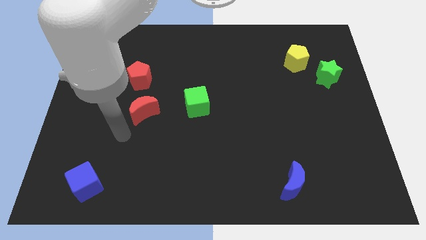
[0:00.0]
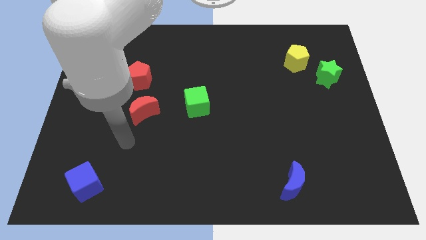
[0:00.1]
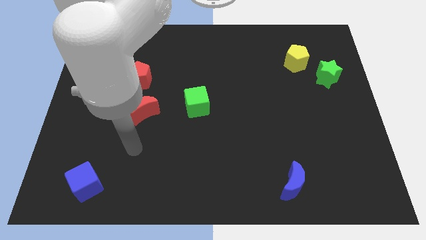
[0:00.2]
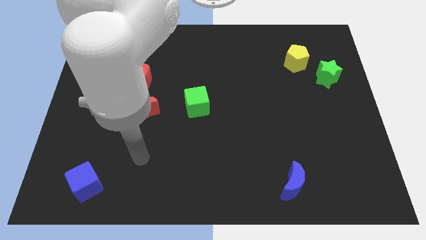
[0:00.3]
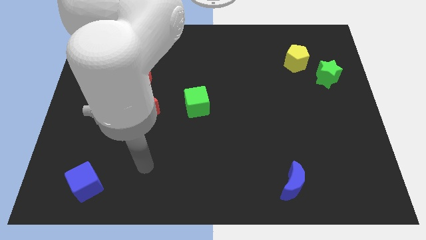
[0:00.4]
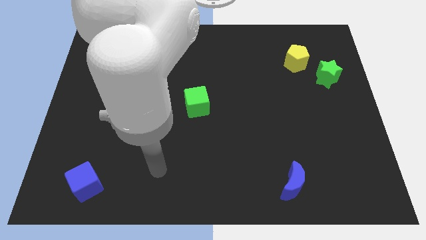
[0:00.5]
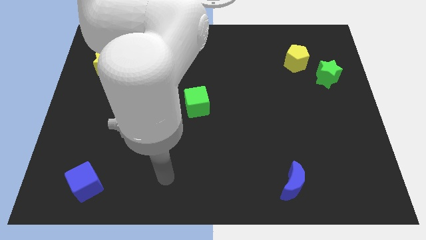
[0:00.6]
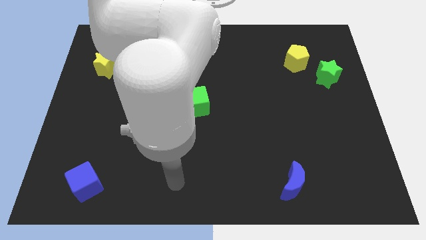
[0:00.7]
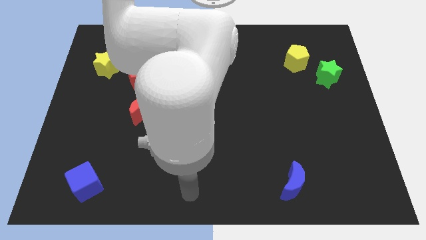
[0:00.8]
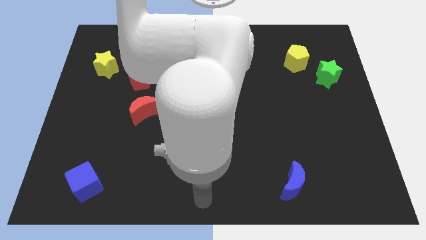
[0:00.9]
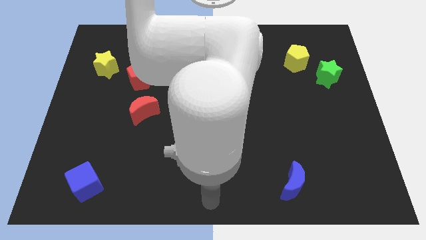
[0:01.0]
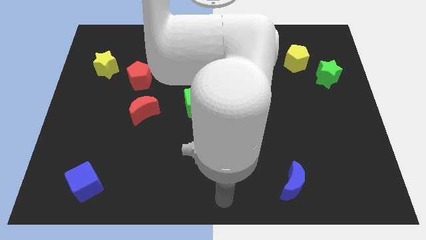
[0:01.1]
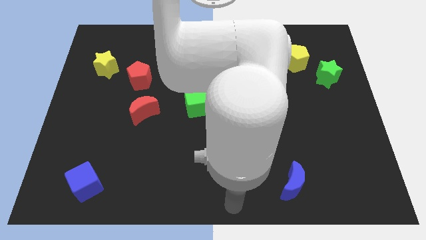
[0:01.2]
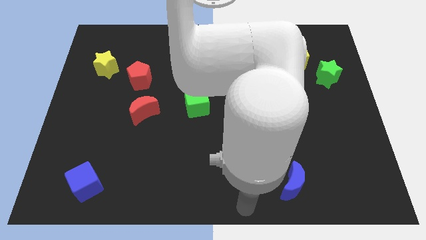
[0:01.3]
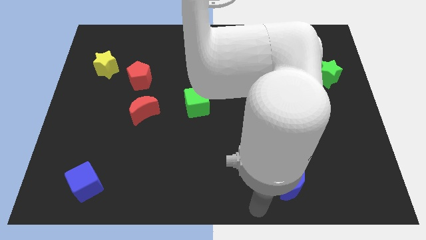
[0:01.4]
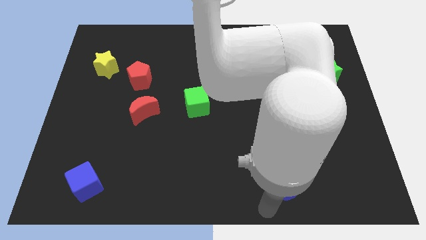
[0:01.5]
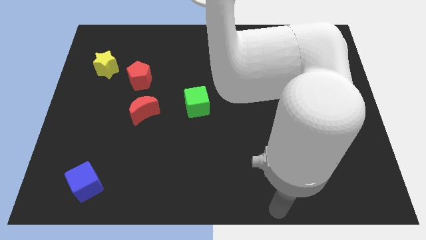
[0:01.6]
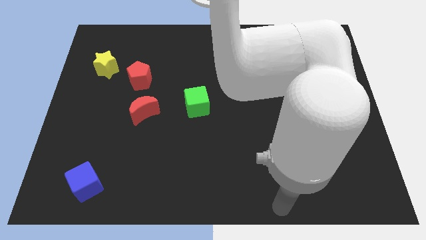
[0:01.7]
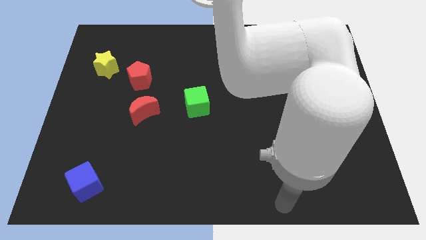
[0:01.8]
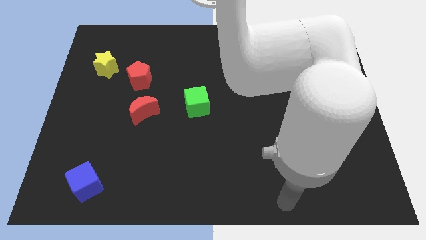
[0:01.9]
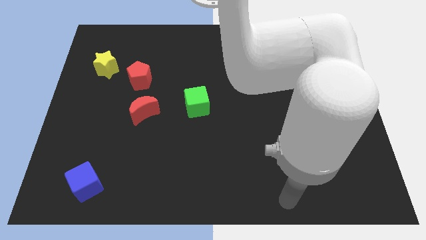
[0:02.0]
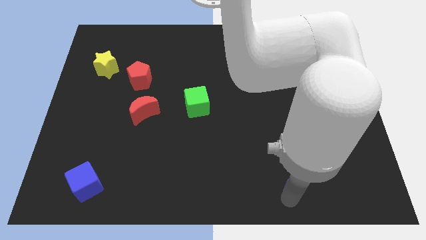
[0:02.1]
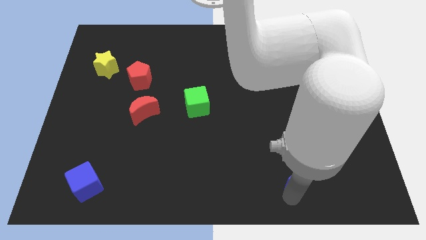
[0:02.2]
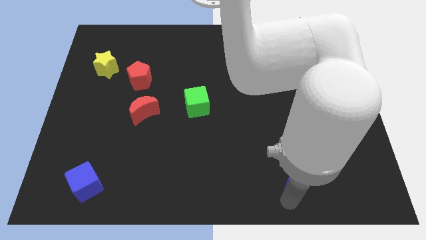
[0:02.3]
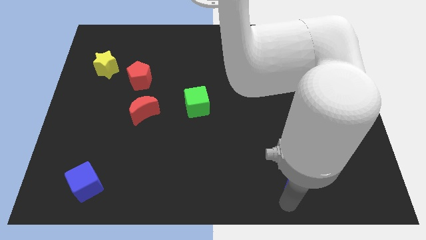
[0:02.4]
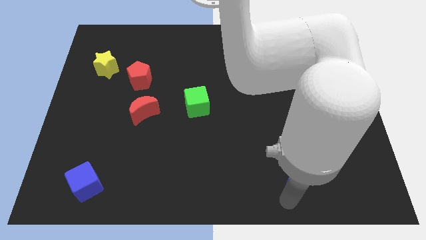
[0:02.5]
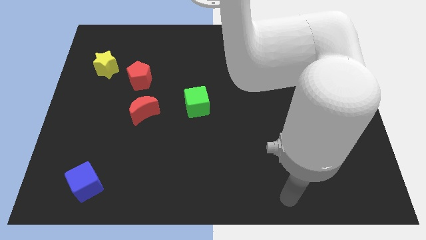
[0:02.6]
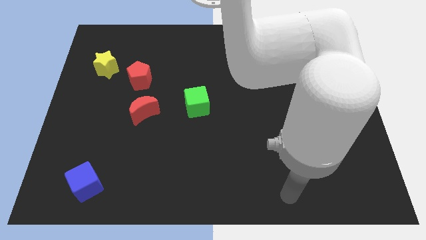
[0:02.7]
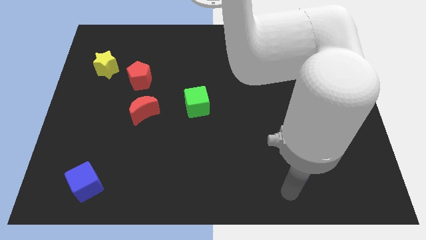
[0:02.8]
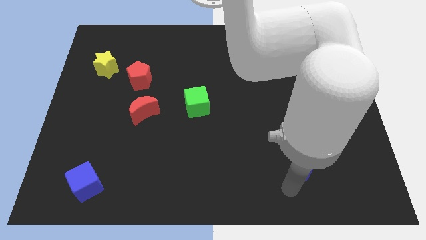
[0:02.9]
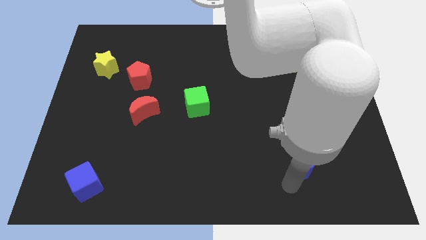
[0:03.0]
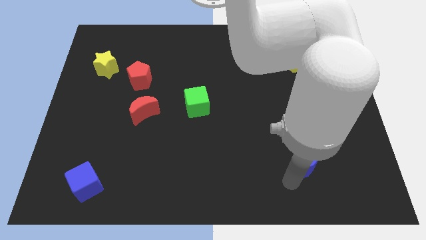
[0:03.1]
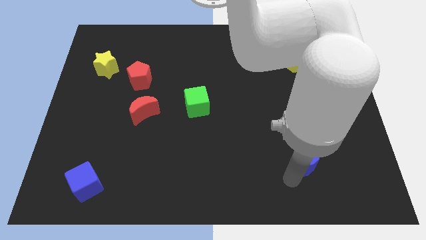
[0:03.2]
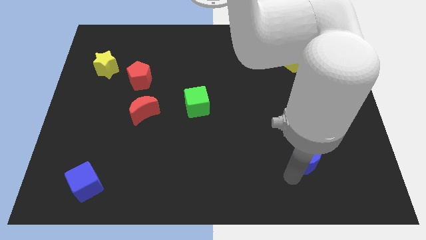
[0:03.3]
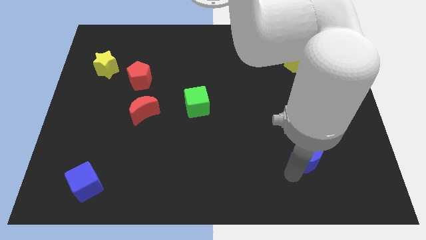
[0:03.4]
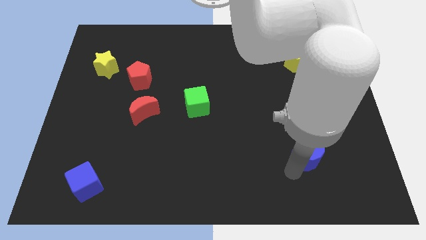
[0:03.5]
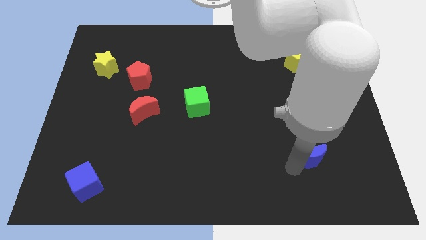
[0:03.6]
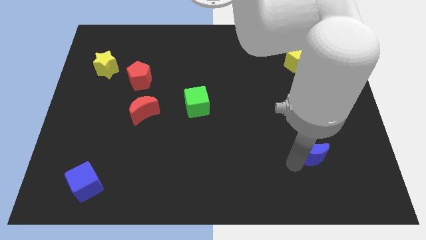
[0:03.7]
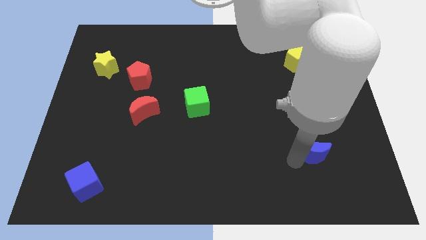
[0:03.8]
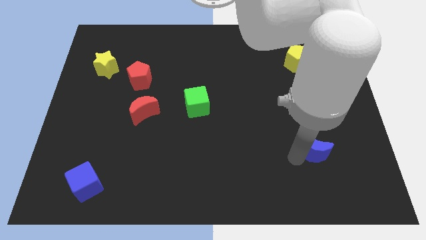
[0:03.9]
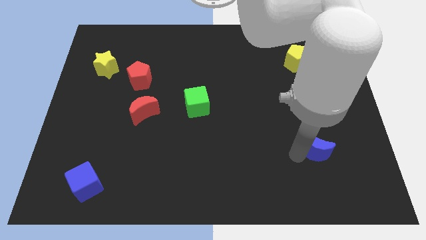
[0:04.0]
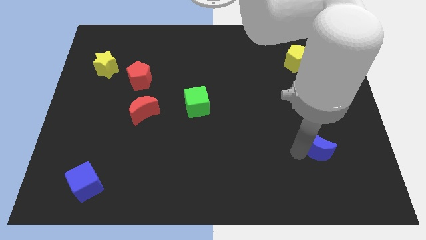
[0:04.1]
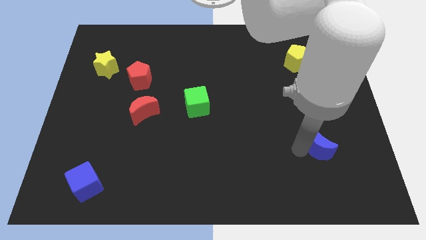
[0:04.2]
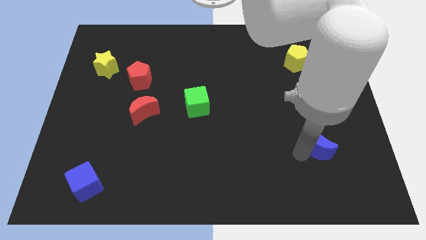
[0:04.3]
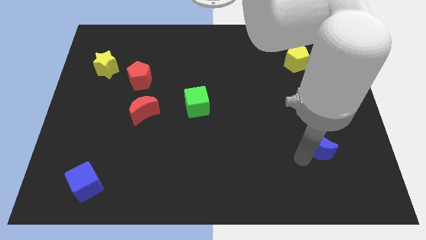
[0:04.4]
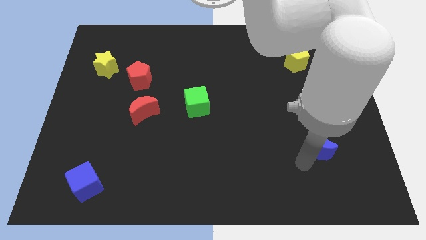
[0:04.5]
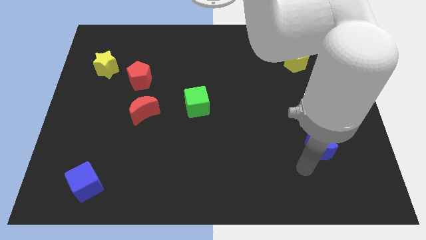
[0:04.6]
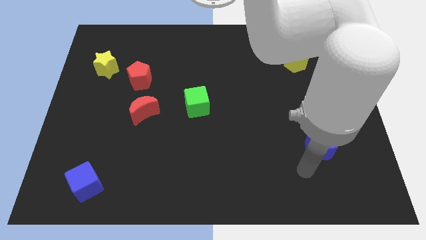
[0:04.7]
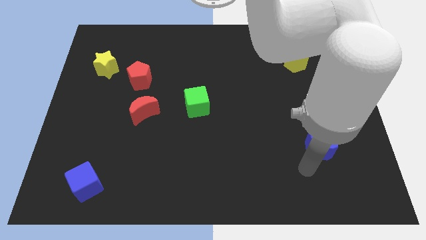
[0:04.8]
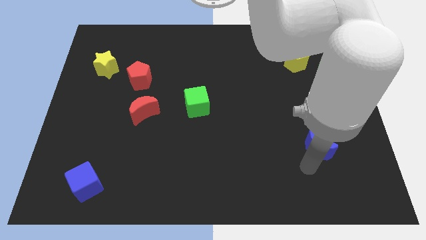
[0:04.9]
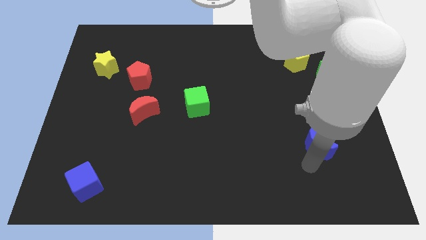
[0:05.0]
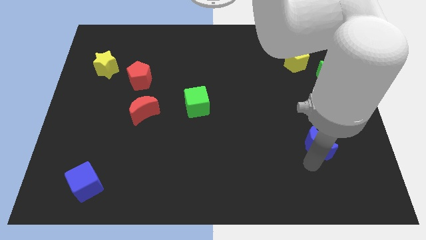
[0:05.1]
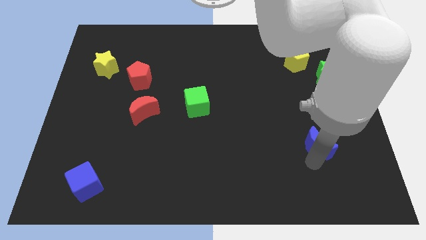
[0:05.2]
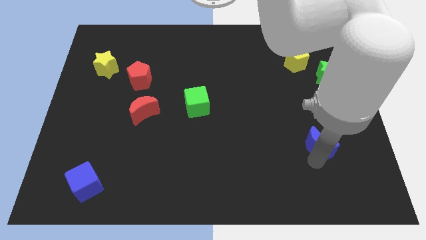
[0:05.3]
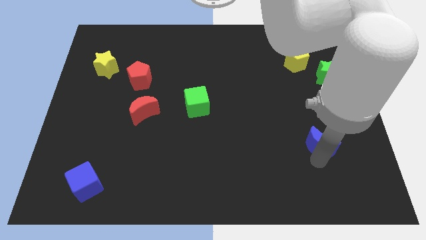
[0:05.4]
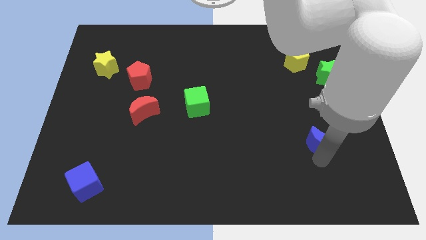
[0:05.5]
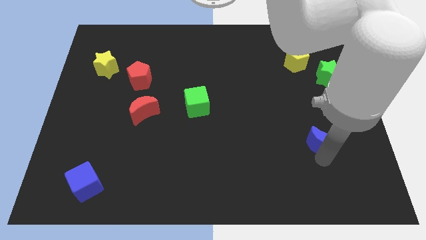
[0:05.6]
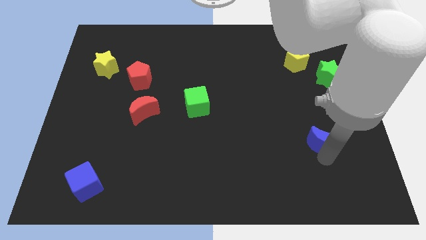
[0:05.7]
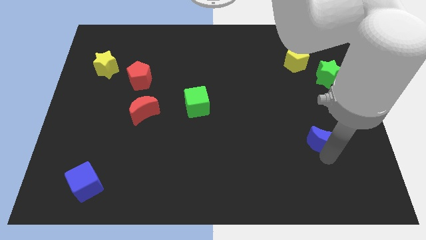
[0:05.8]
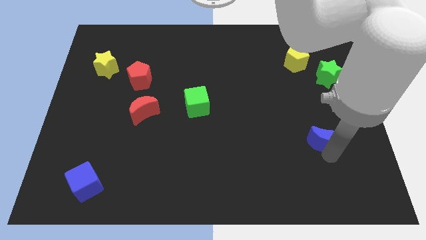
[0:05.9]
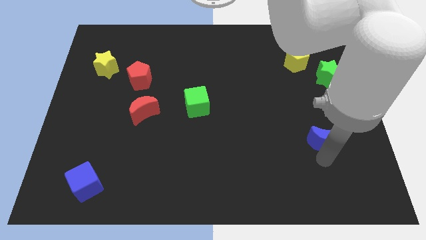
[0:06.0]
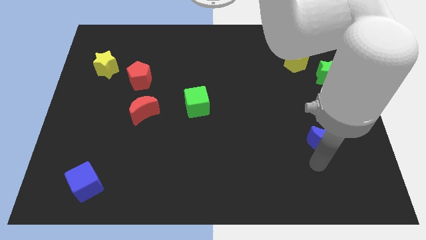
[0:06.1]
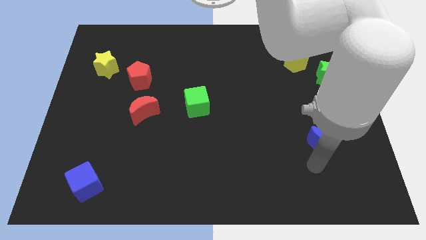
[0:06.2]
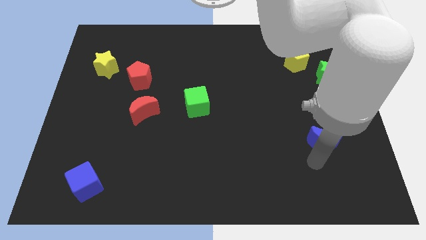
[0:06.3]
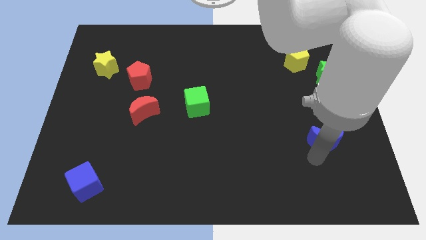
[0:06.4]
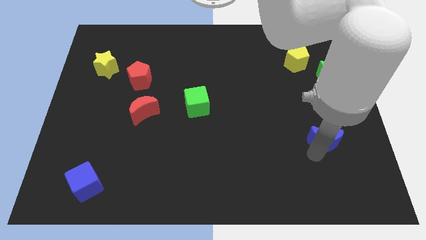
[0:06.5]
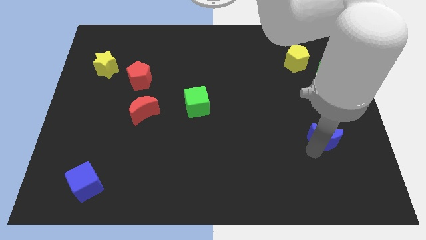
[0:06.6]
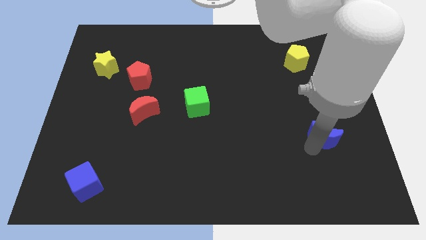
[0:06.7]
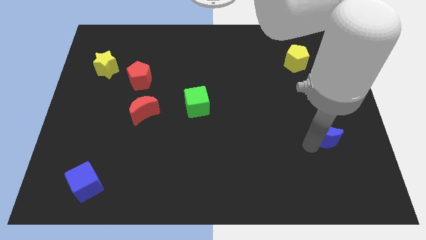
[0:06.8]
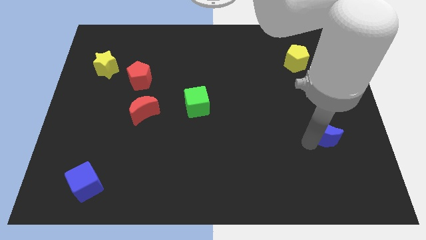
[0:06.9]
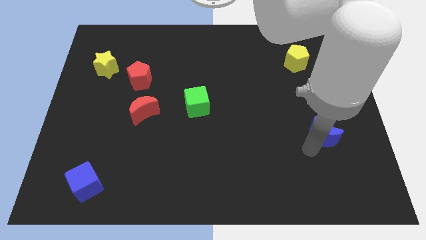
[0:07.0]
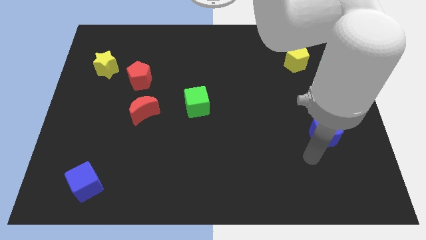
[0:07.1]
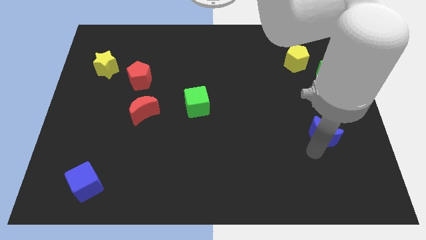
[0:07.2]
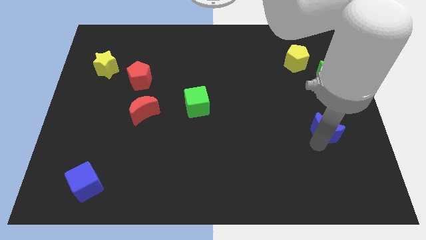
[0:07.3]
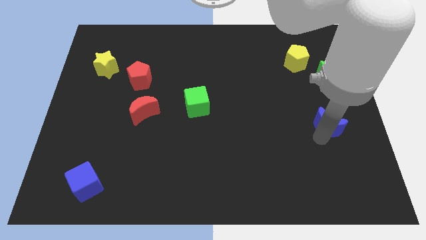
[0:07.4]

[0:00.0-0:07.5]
put the blue moon to the bottom of the green star
